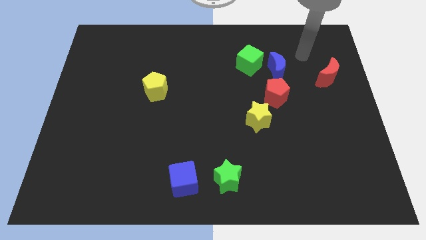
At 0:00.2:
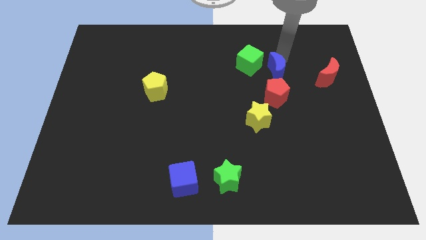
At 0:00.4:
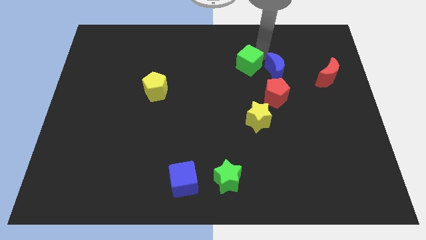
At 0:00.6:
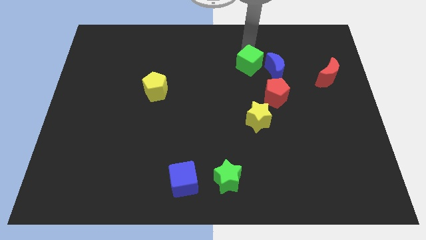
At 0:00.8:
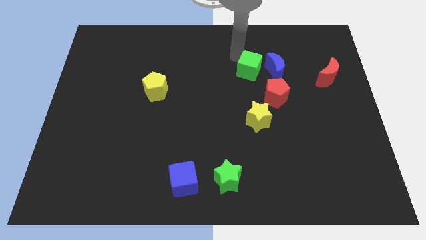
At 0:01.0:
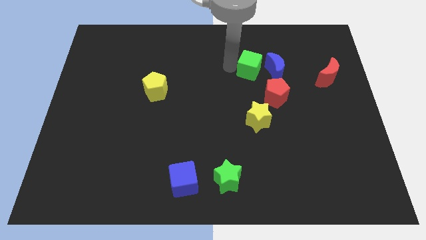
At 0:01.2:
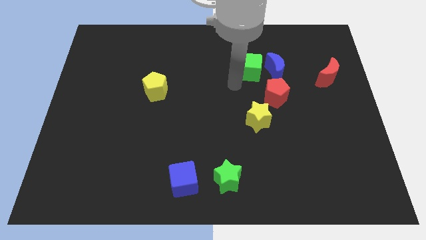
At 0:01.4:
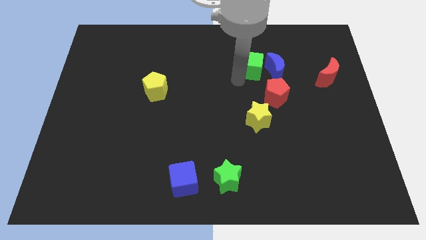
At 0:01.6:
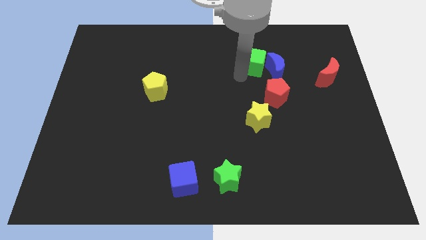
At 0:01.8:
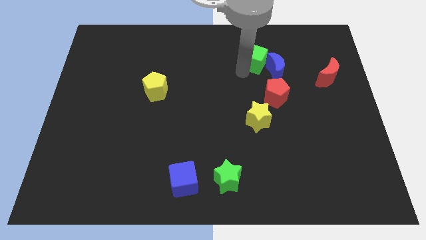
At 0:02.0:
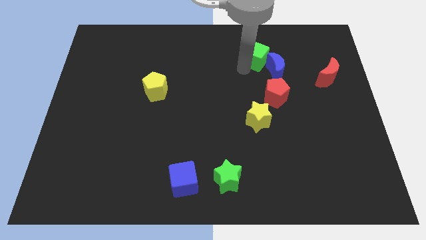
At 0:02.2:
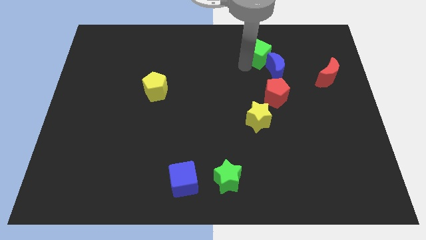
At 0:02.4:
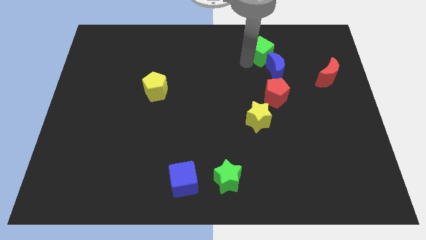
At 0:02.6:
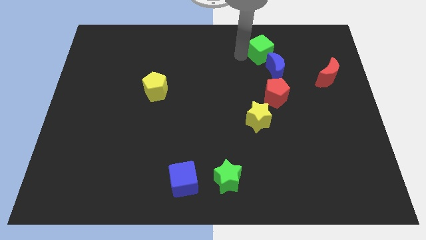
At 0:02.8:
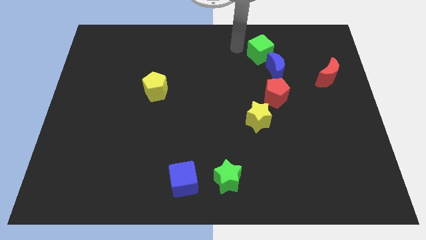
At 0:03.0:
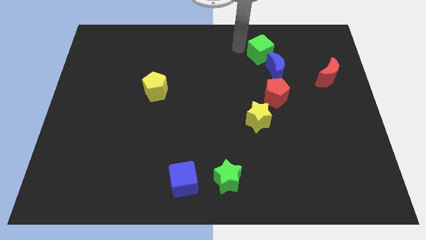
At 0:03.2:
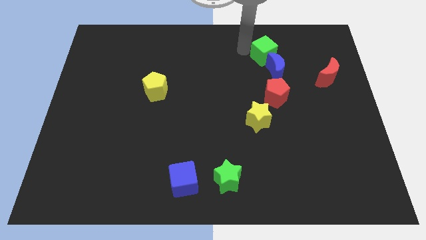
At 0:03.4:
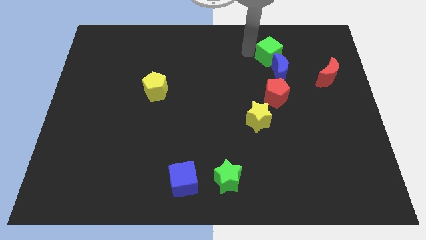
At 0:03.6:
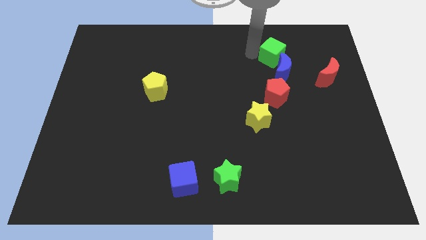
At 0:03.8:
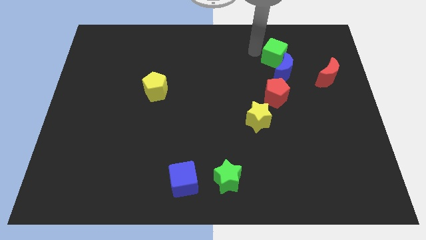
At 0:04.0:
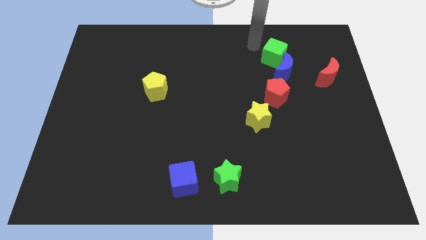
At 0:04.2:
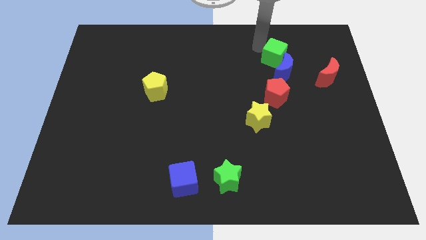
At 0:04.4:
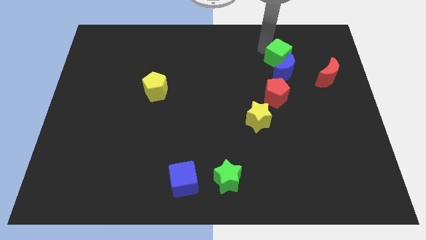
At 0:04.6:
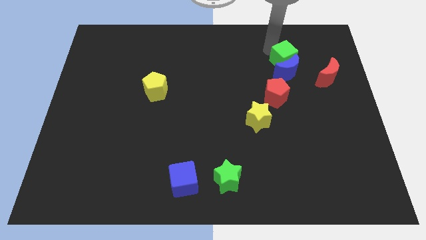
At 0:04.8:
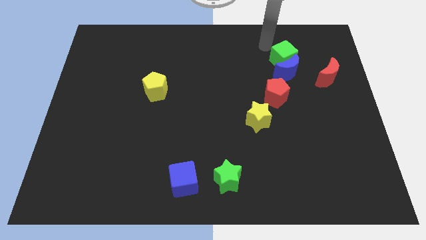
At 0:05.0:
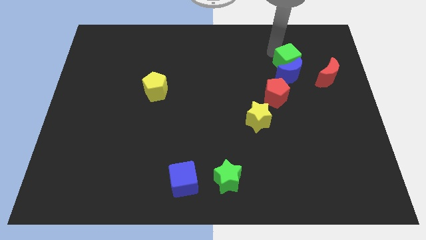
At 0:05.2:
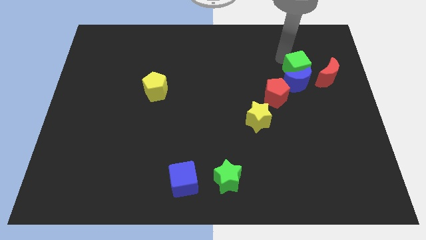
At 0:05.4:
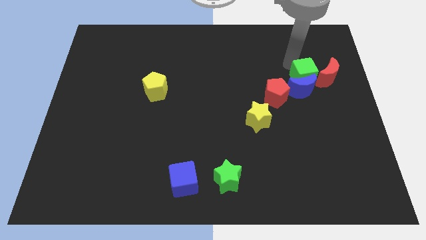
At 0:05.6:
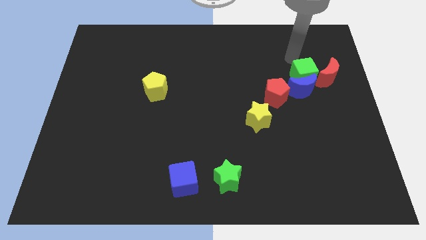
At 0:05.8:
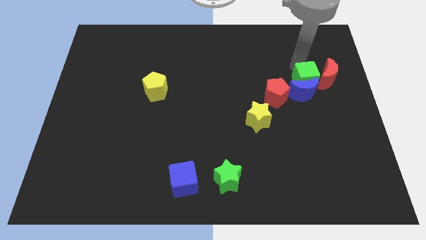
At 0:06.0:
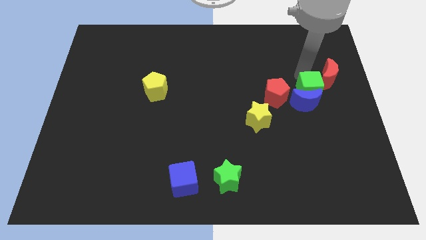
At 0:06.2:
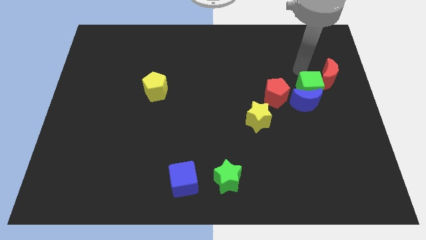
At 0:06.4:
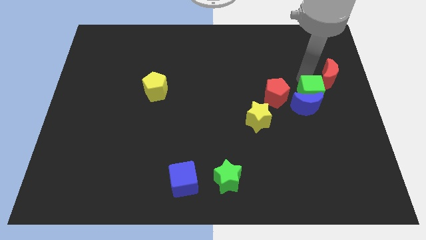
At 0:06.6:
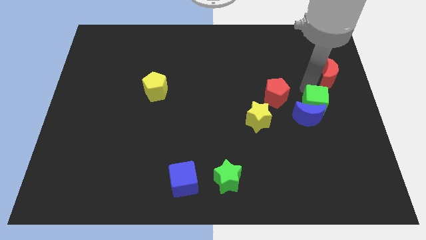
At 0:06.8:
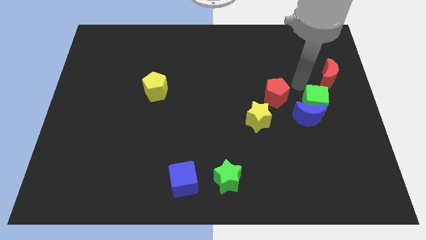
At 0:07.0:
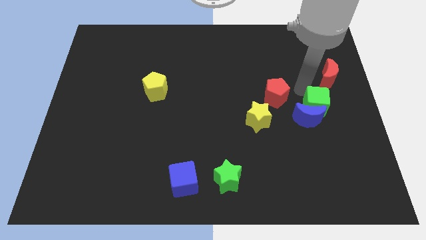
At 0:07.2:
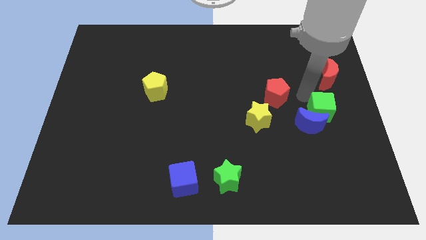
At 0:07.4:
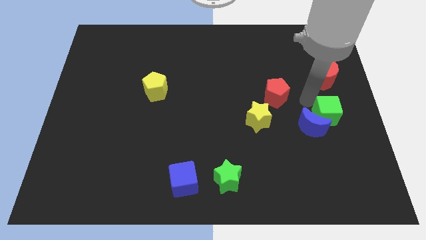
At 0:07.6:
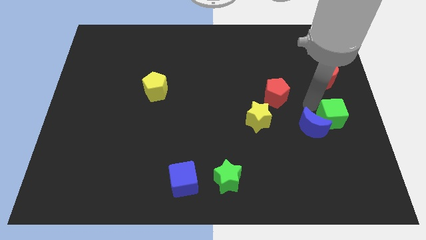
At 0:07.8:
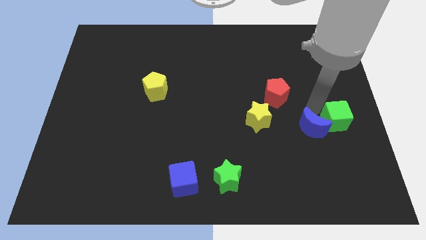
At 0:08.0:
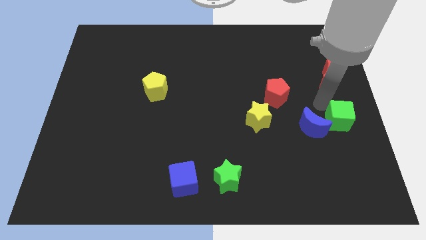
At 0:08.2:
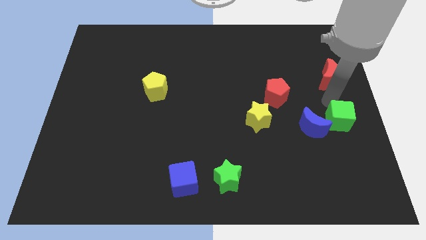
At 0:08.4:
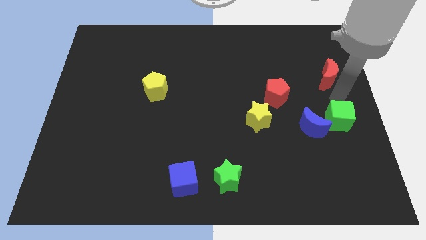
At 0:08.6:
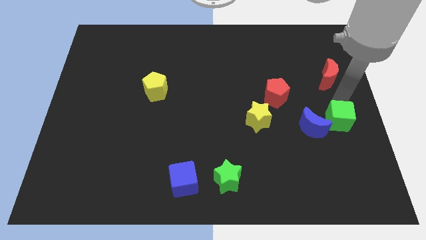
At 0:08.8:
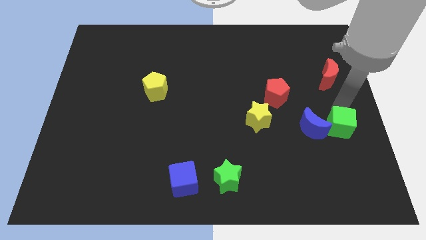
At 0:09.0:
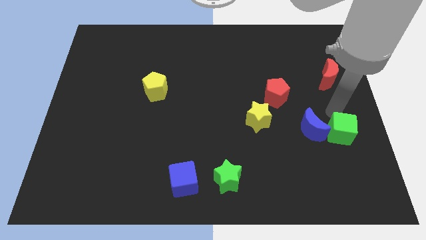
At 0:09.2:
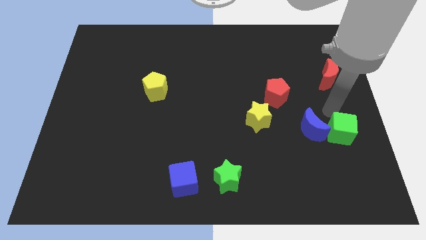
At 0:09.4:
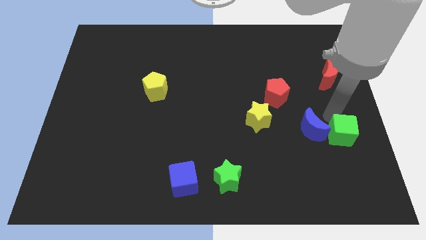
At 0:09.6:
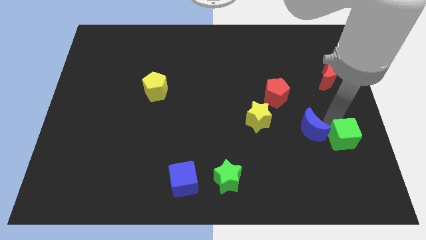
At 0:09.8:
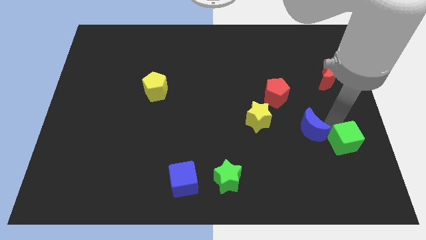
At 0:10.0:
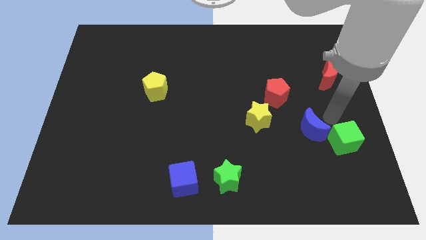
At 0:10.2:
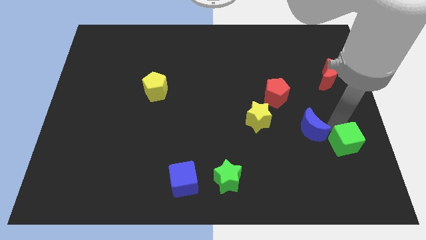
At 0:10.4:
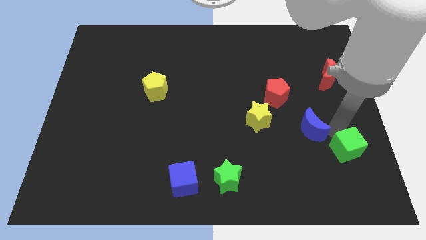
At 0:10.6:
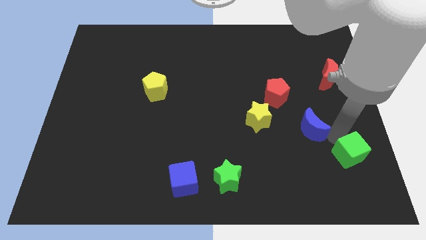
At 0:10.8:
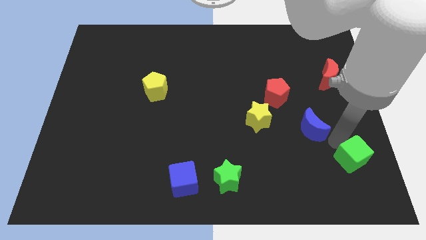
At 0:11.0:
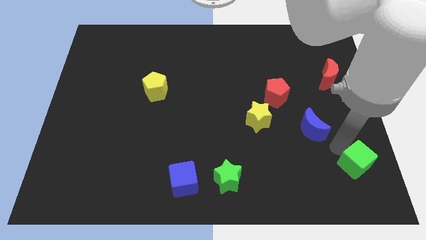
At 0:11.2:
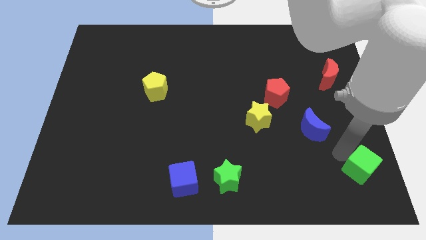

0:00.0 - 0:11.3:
push the green cube to the bottom right of the board

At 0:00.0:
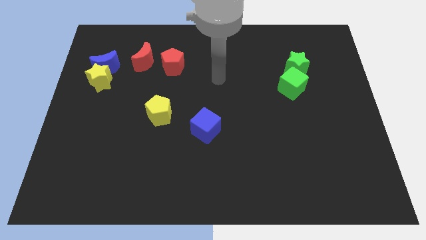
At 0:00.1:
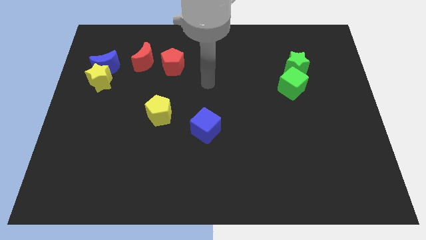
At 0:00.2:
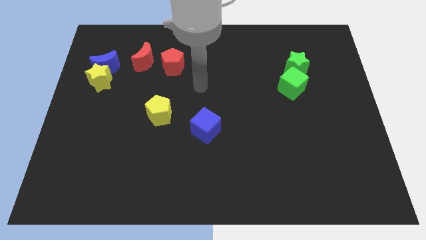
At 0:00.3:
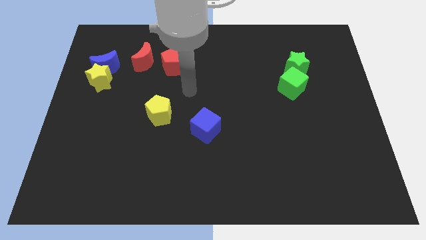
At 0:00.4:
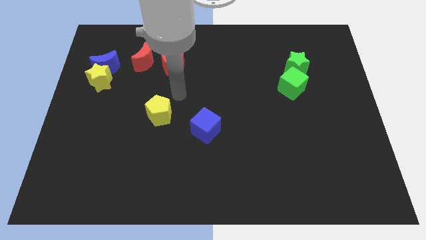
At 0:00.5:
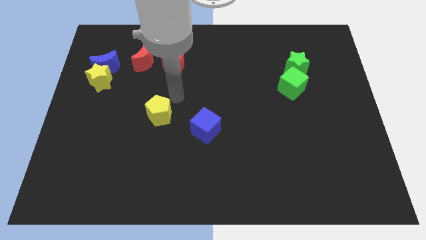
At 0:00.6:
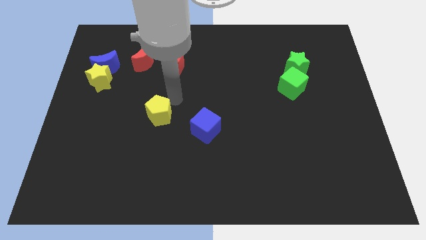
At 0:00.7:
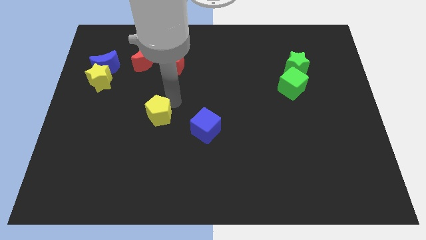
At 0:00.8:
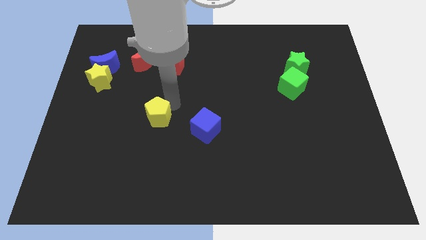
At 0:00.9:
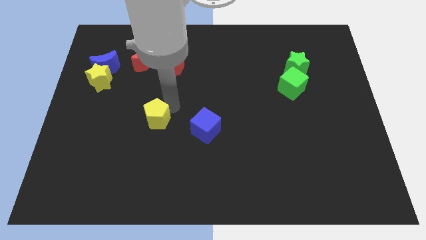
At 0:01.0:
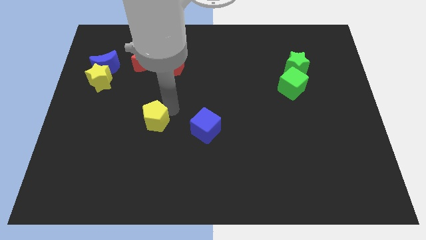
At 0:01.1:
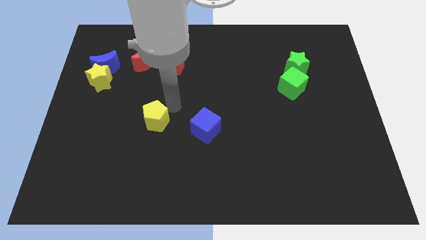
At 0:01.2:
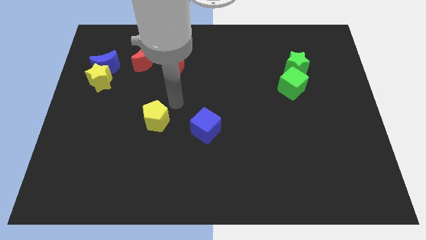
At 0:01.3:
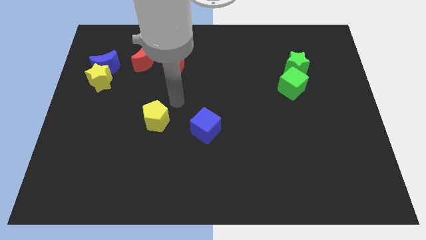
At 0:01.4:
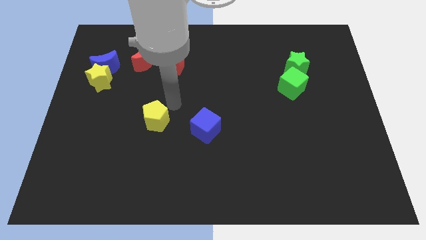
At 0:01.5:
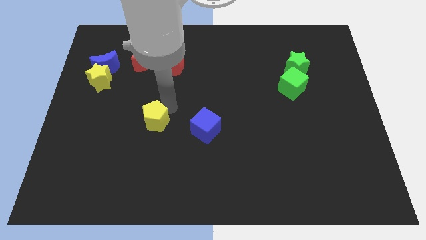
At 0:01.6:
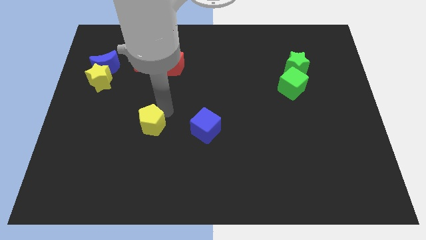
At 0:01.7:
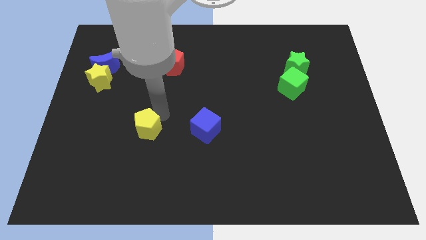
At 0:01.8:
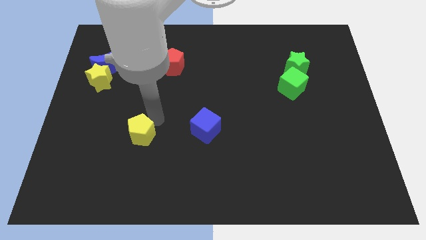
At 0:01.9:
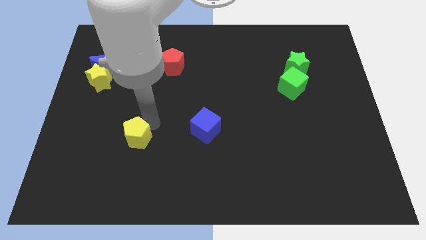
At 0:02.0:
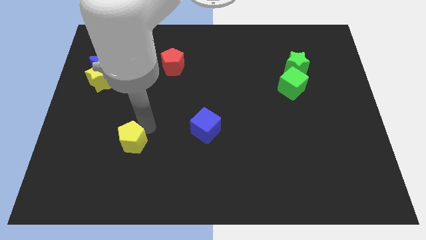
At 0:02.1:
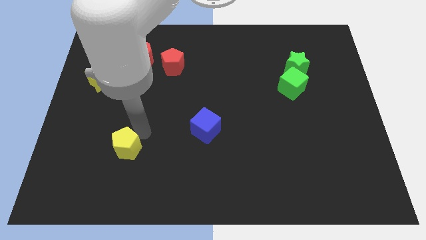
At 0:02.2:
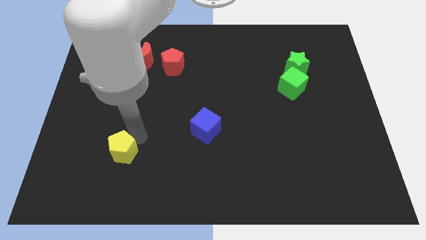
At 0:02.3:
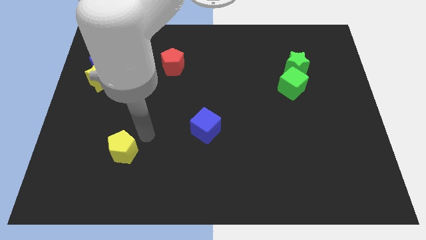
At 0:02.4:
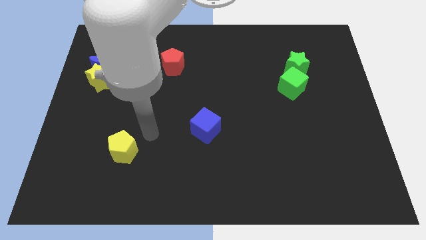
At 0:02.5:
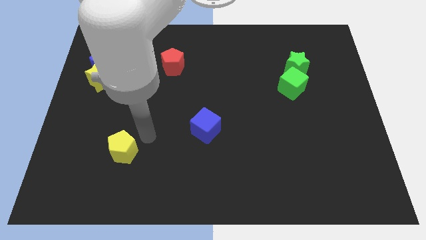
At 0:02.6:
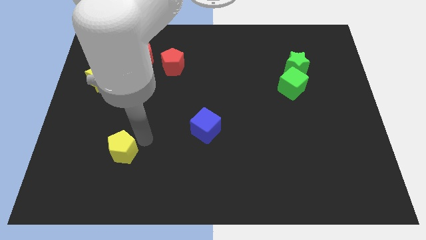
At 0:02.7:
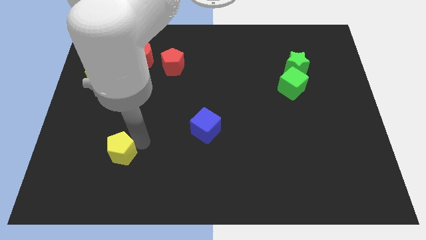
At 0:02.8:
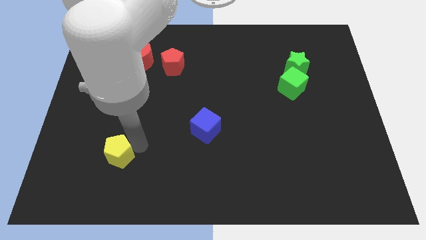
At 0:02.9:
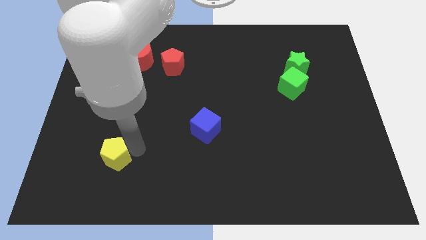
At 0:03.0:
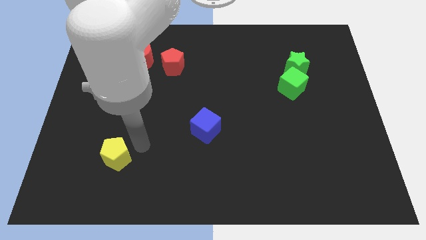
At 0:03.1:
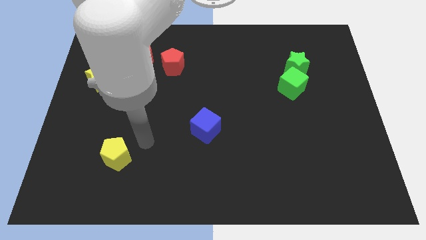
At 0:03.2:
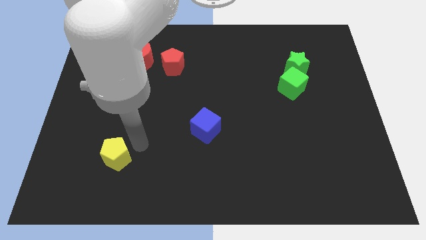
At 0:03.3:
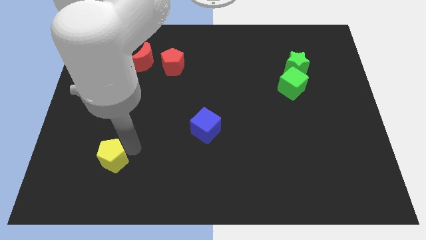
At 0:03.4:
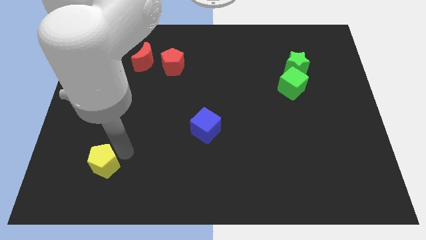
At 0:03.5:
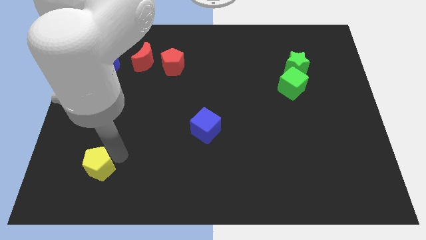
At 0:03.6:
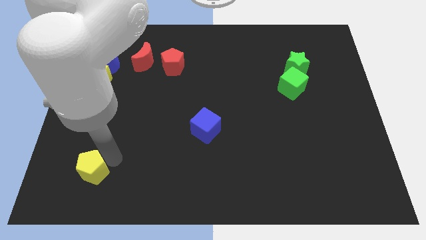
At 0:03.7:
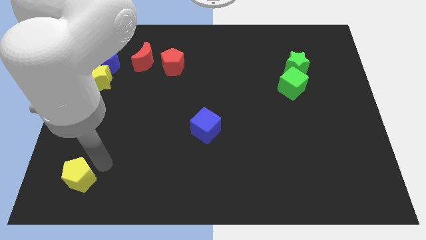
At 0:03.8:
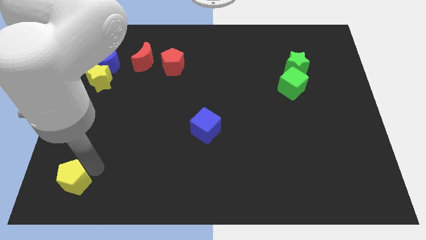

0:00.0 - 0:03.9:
move the yellow pentagon to the bottom left
